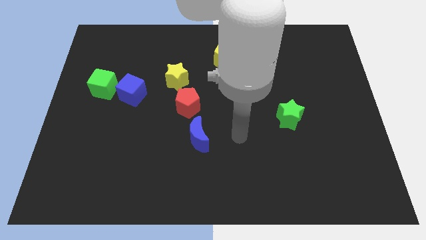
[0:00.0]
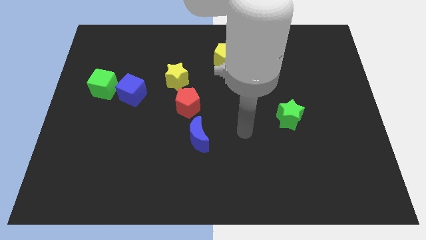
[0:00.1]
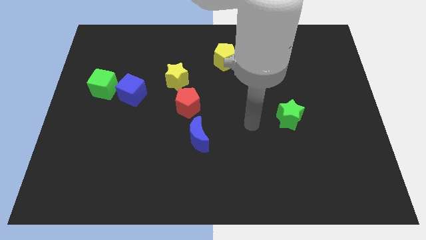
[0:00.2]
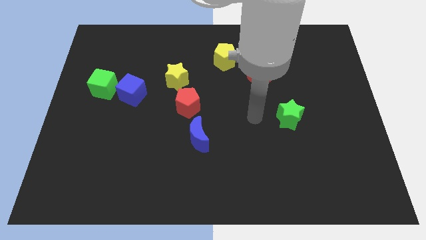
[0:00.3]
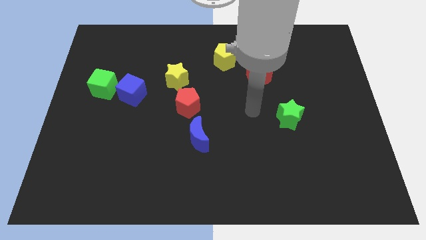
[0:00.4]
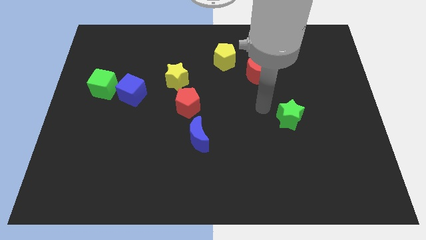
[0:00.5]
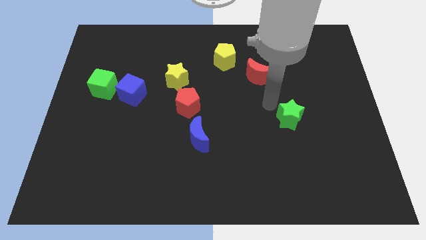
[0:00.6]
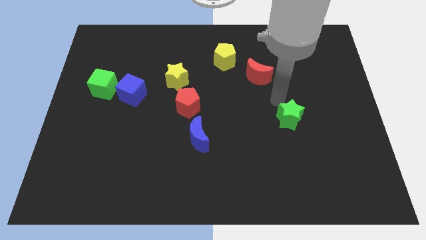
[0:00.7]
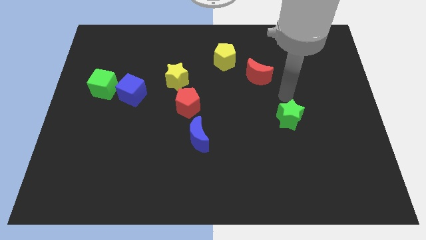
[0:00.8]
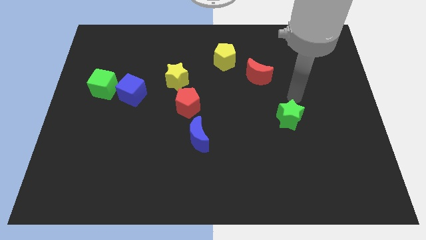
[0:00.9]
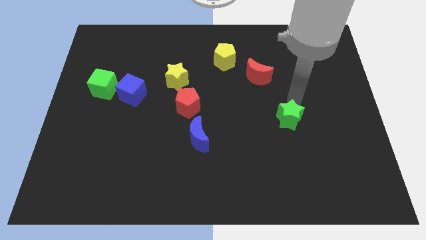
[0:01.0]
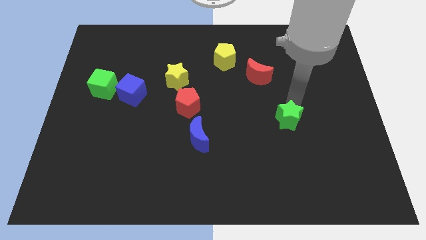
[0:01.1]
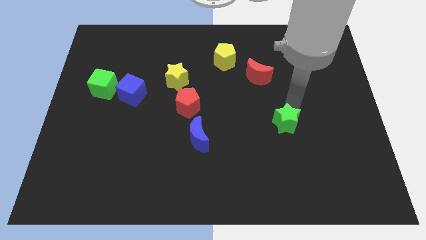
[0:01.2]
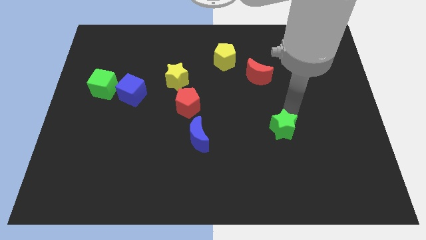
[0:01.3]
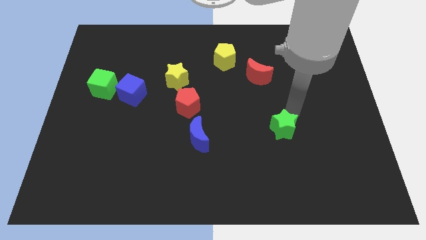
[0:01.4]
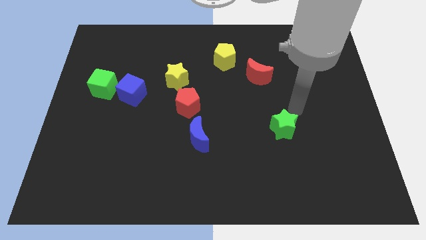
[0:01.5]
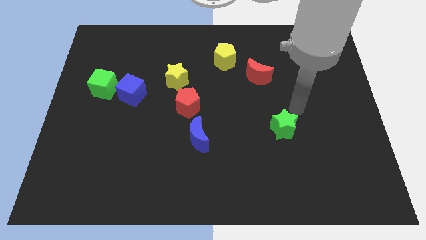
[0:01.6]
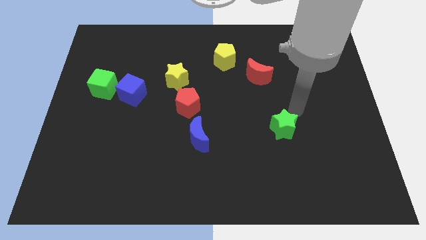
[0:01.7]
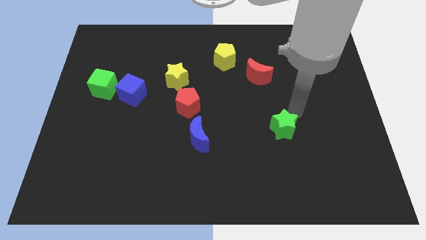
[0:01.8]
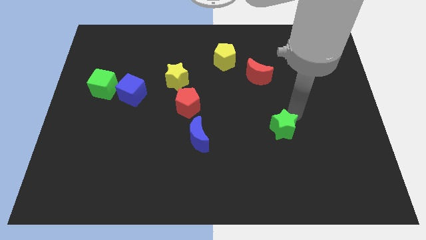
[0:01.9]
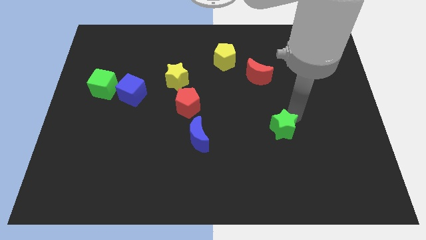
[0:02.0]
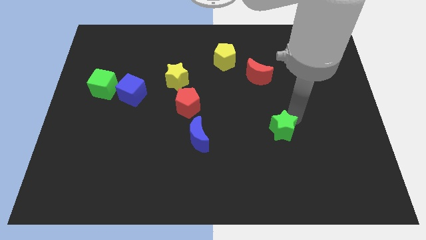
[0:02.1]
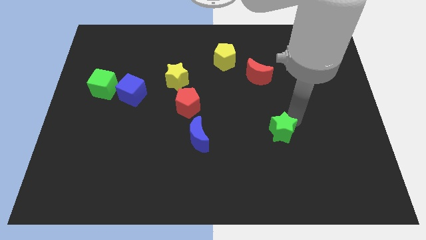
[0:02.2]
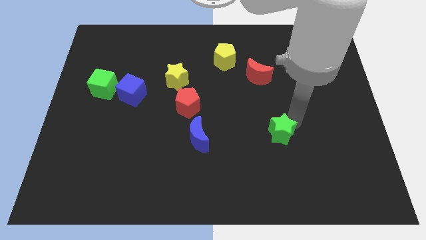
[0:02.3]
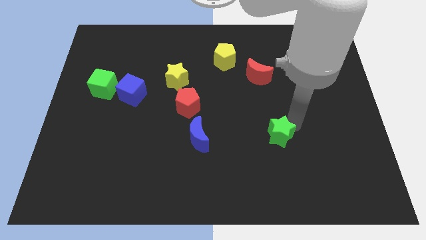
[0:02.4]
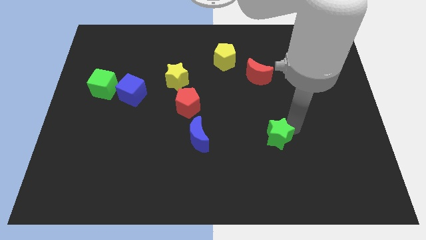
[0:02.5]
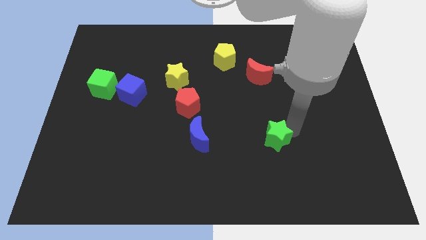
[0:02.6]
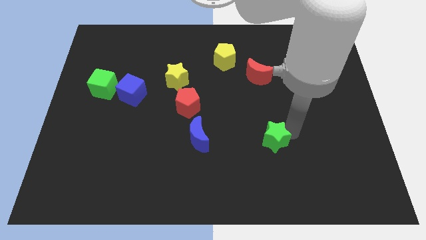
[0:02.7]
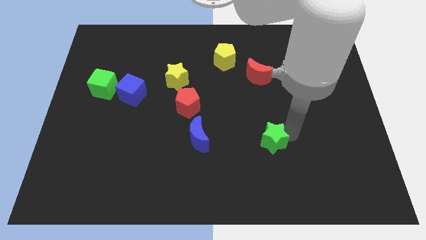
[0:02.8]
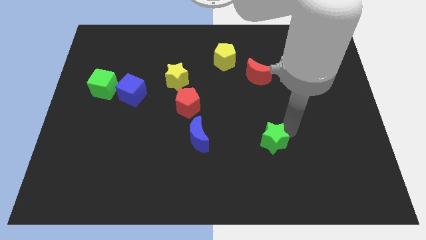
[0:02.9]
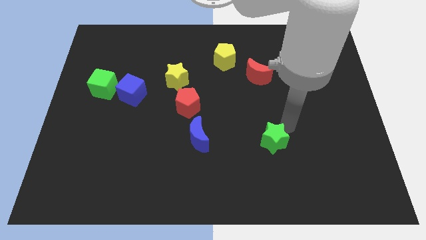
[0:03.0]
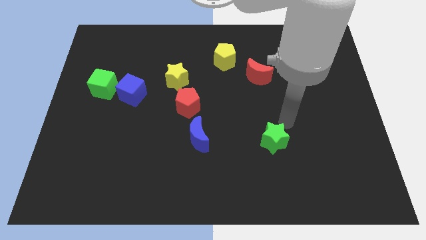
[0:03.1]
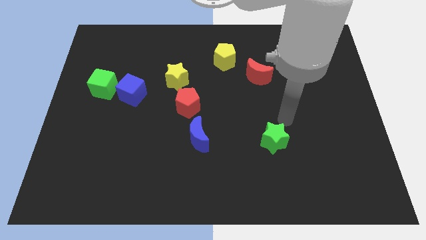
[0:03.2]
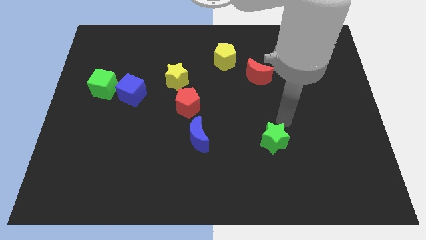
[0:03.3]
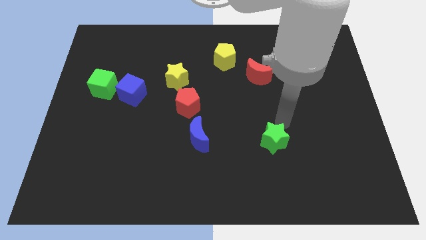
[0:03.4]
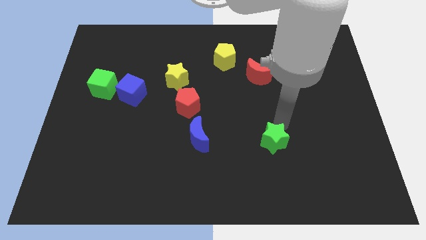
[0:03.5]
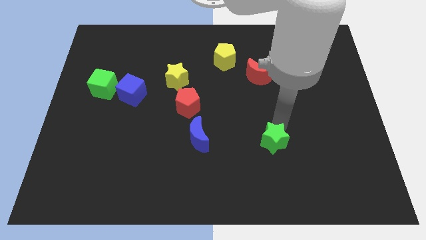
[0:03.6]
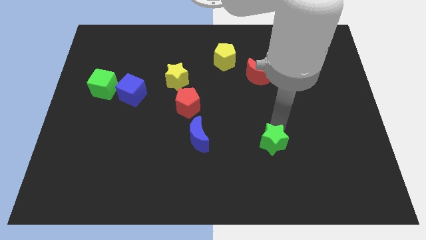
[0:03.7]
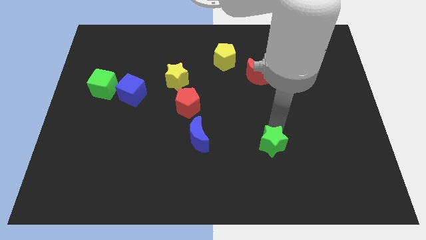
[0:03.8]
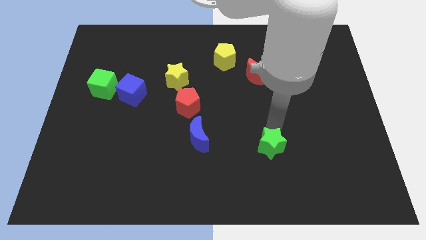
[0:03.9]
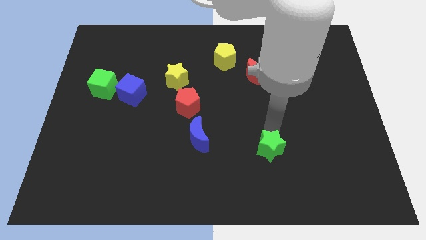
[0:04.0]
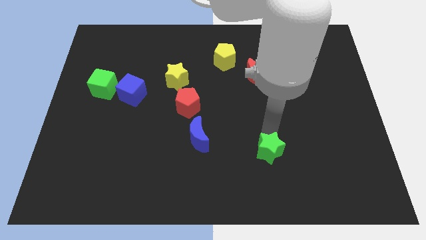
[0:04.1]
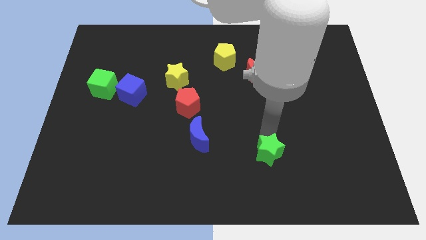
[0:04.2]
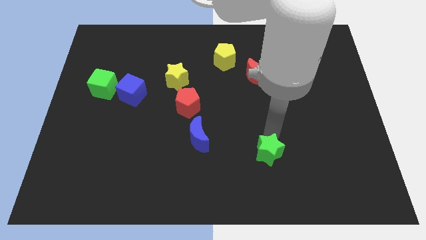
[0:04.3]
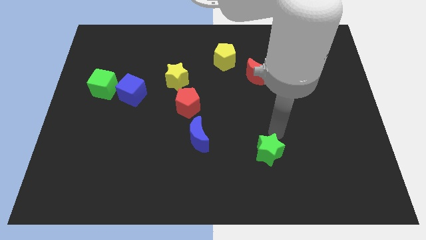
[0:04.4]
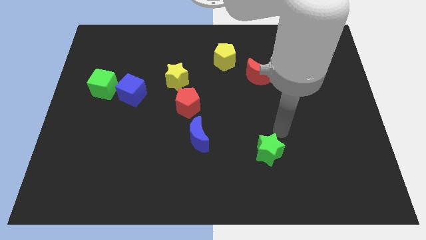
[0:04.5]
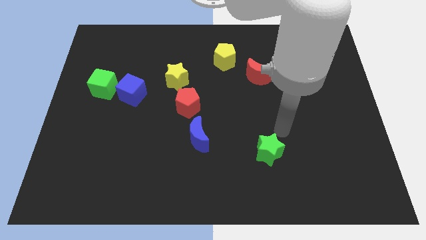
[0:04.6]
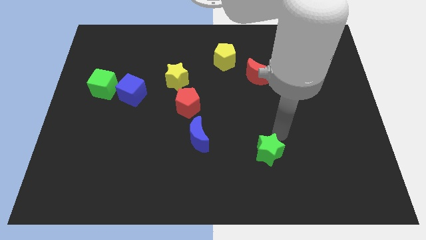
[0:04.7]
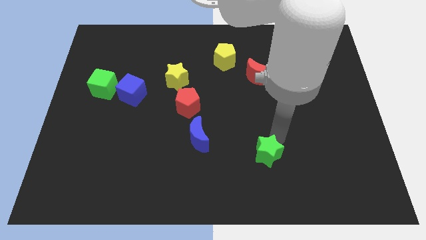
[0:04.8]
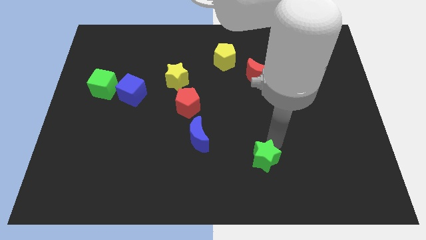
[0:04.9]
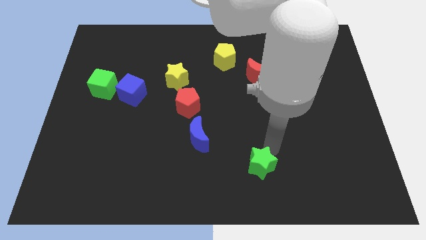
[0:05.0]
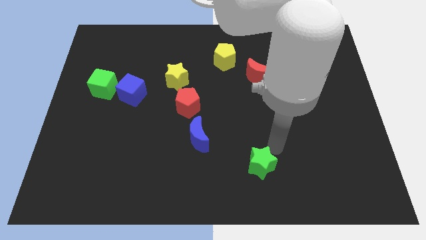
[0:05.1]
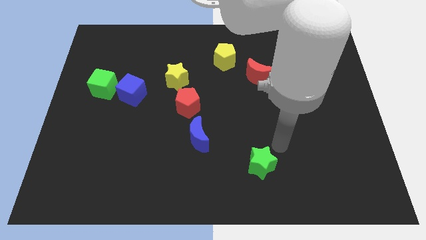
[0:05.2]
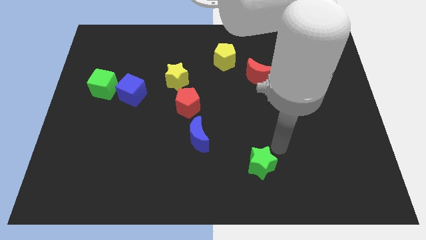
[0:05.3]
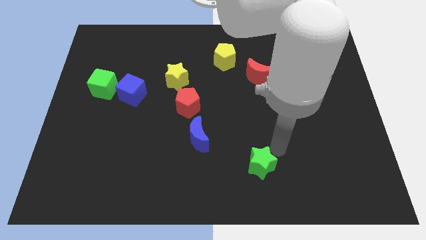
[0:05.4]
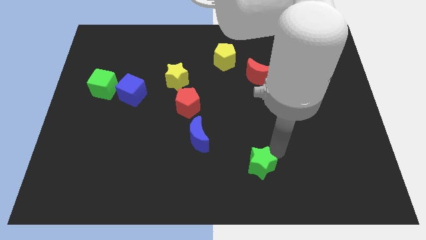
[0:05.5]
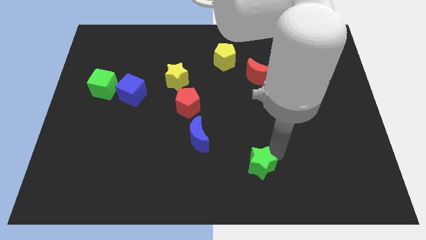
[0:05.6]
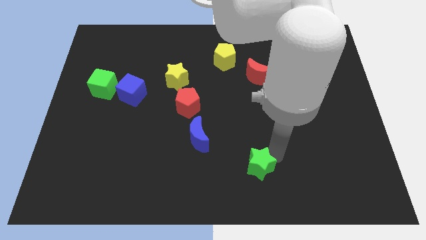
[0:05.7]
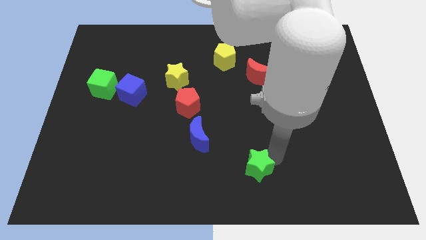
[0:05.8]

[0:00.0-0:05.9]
push the green star to the bottom

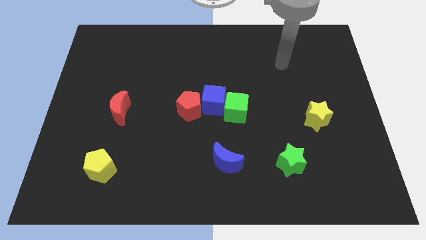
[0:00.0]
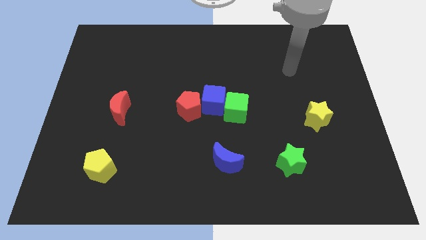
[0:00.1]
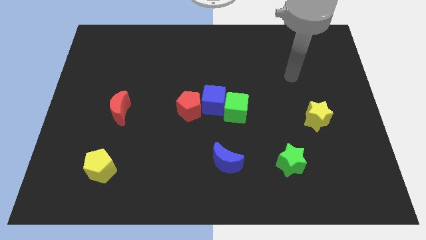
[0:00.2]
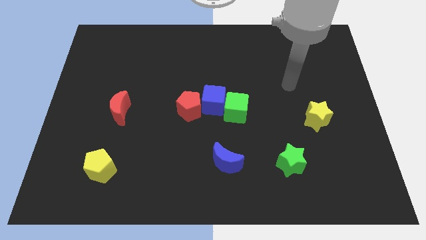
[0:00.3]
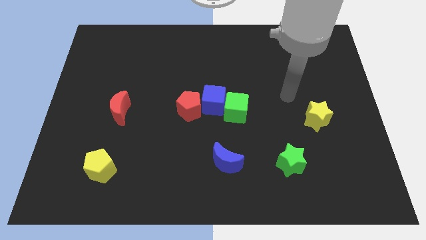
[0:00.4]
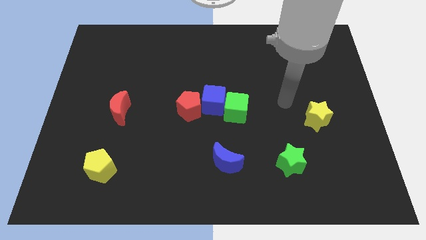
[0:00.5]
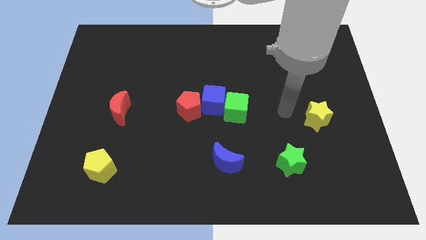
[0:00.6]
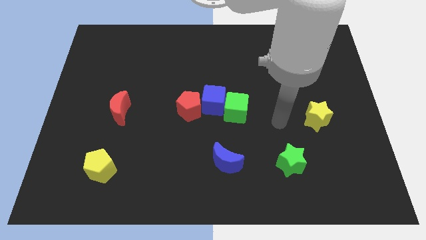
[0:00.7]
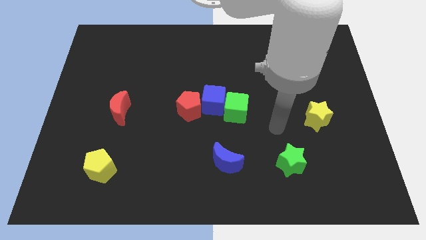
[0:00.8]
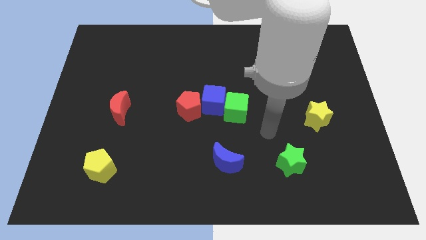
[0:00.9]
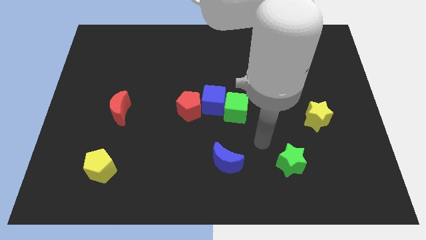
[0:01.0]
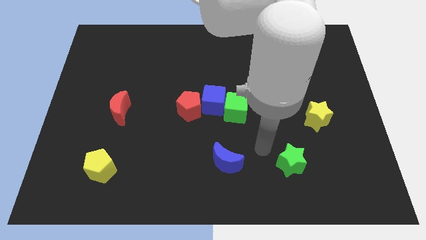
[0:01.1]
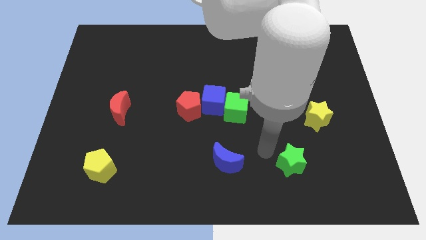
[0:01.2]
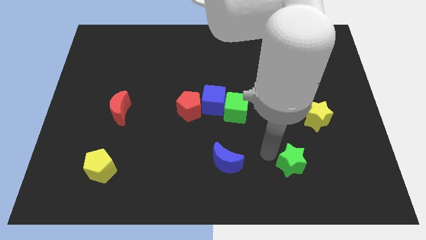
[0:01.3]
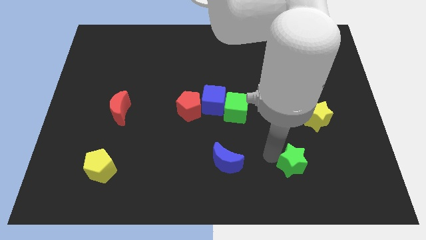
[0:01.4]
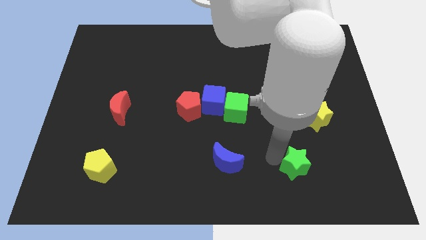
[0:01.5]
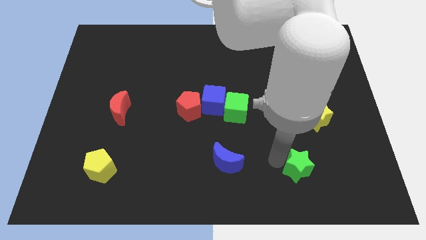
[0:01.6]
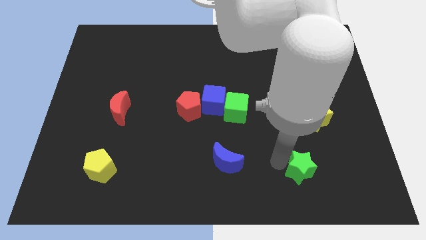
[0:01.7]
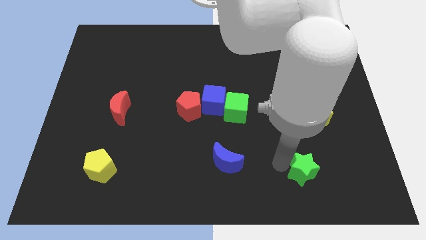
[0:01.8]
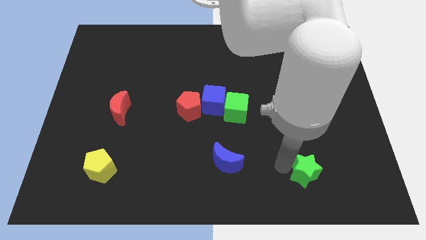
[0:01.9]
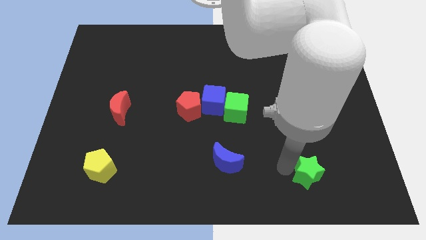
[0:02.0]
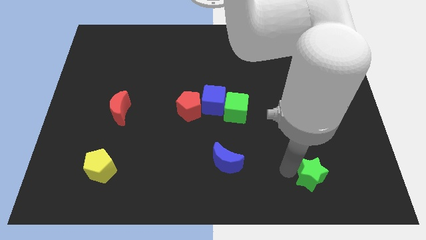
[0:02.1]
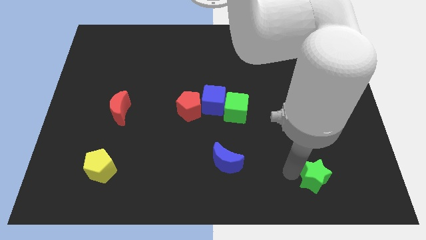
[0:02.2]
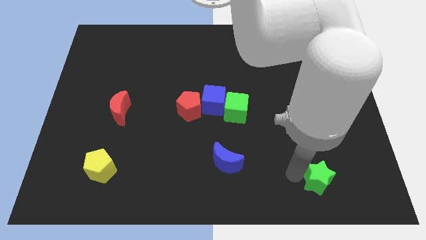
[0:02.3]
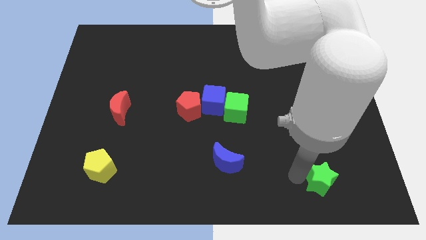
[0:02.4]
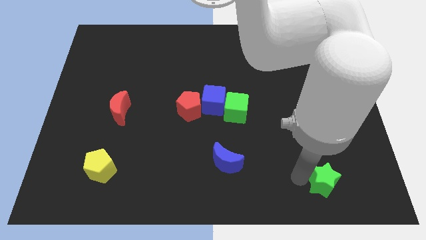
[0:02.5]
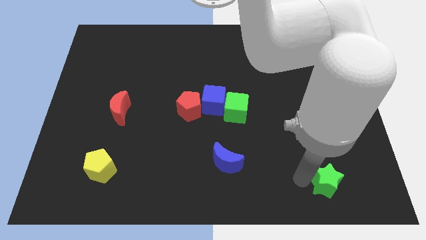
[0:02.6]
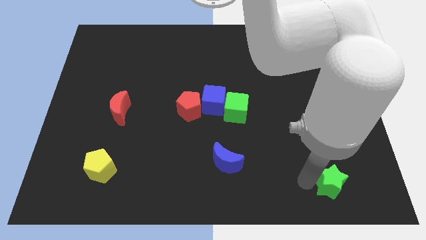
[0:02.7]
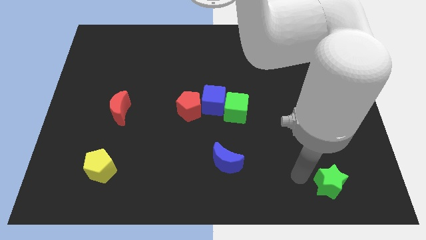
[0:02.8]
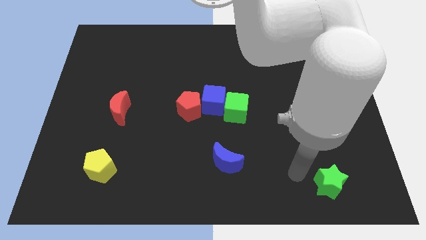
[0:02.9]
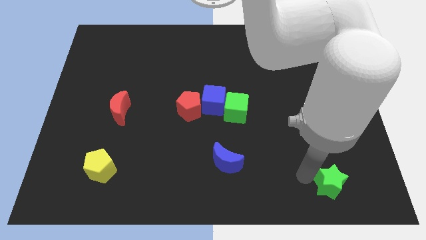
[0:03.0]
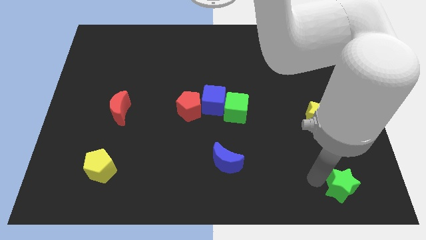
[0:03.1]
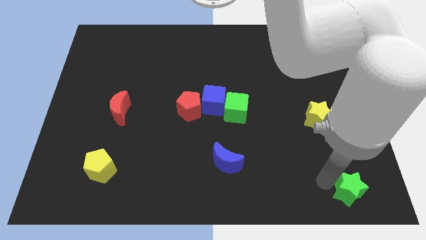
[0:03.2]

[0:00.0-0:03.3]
push the green star to the bottom right corner
